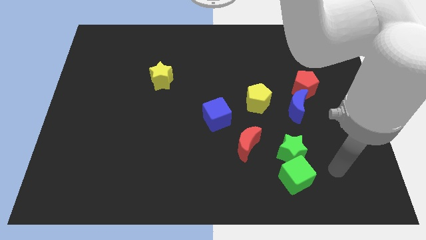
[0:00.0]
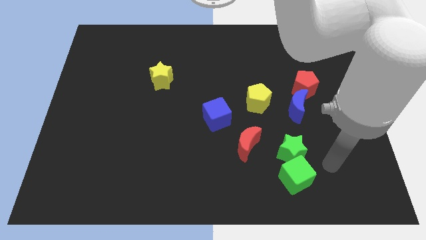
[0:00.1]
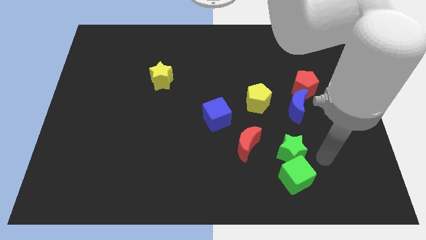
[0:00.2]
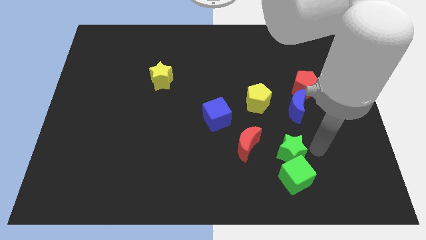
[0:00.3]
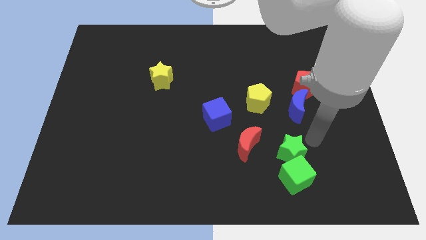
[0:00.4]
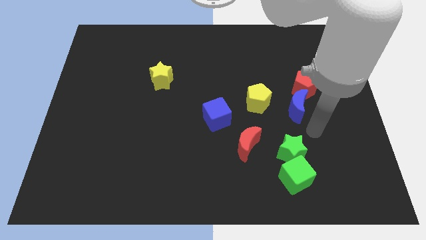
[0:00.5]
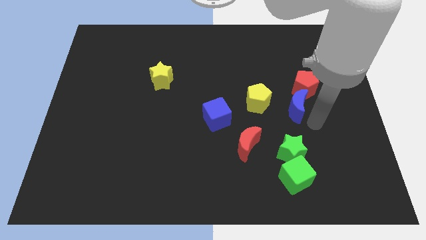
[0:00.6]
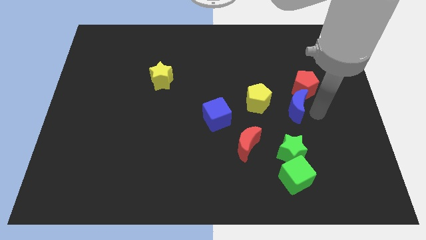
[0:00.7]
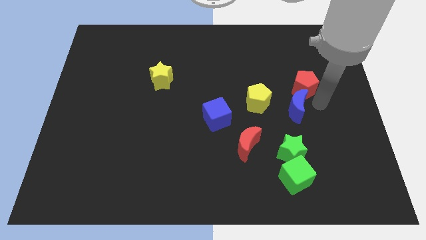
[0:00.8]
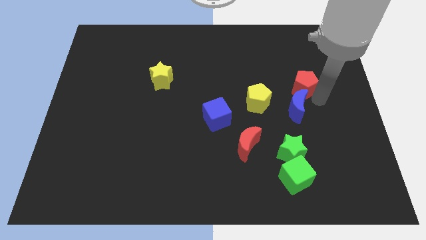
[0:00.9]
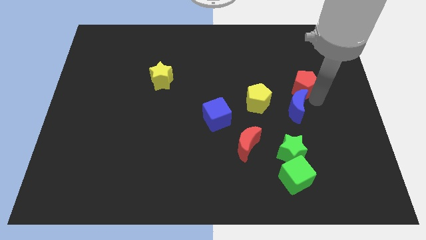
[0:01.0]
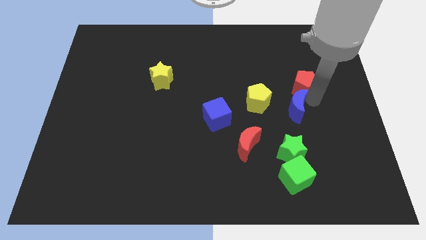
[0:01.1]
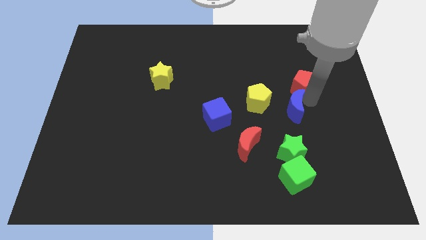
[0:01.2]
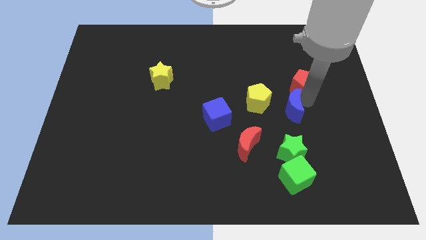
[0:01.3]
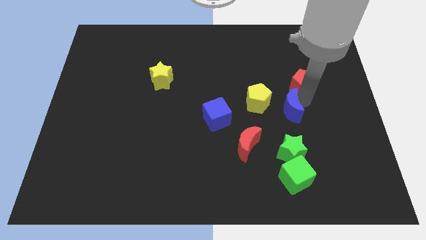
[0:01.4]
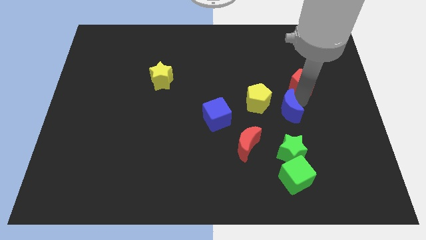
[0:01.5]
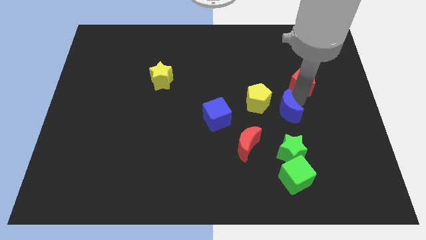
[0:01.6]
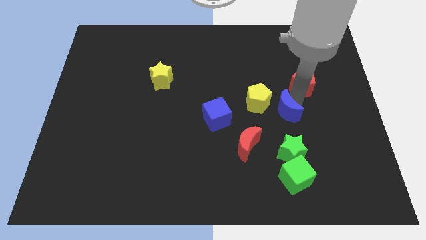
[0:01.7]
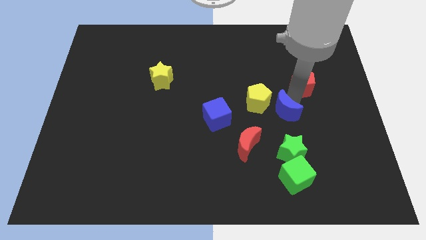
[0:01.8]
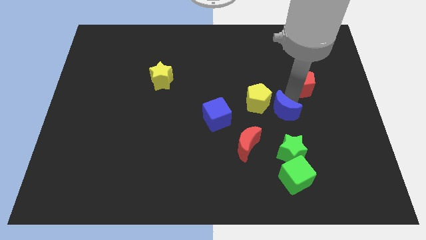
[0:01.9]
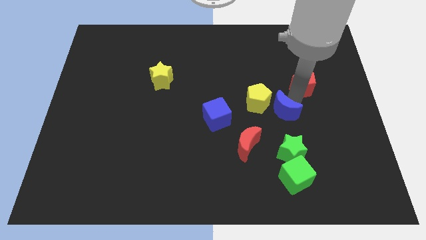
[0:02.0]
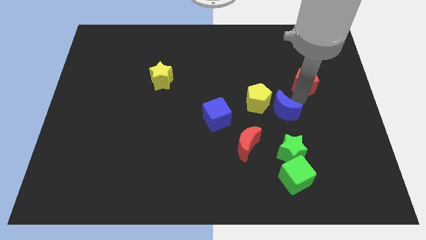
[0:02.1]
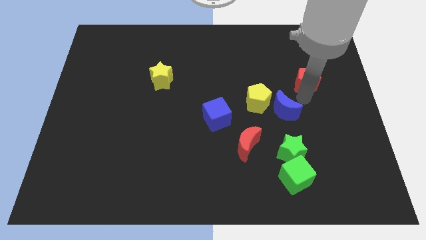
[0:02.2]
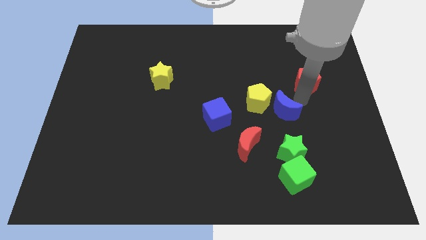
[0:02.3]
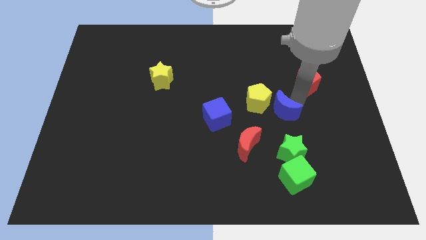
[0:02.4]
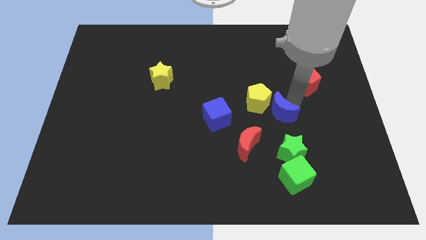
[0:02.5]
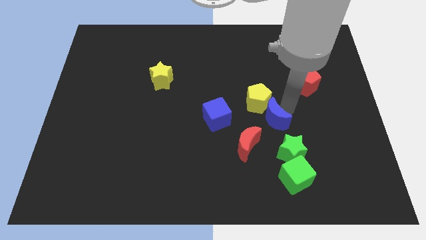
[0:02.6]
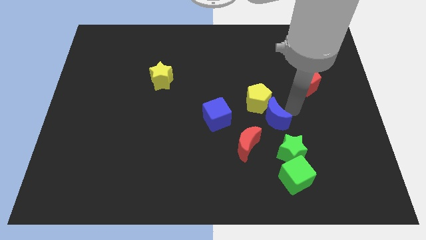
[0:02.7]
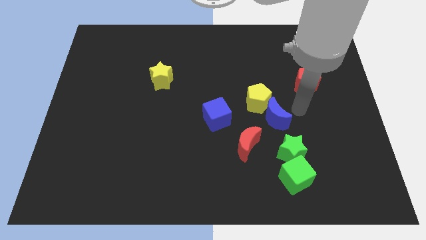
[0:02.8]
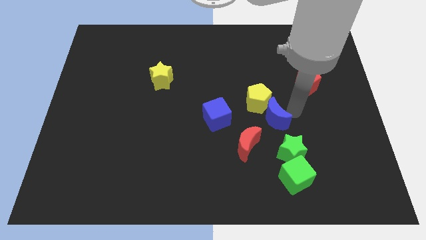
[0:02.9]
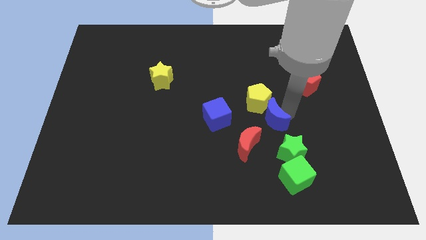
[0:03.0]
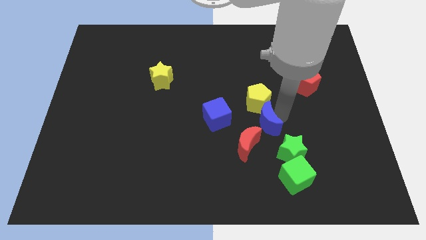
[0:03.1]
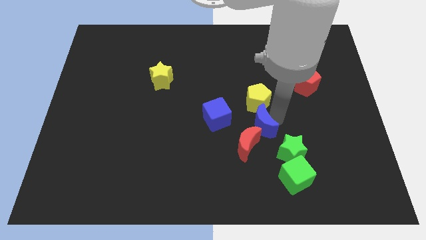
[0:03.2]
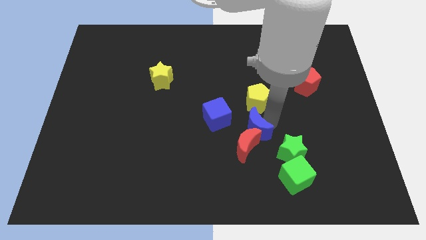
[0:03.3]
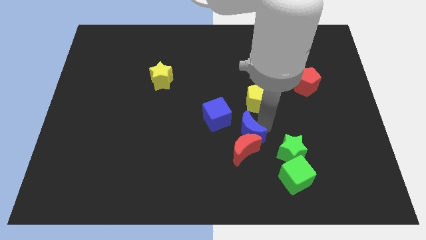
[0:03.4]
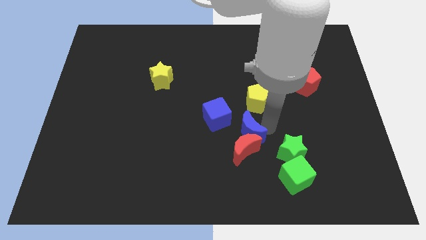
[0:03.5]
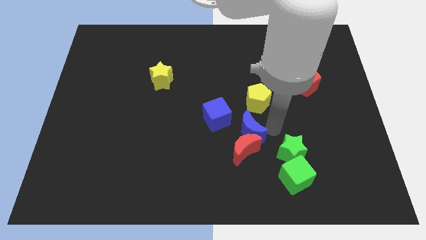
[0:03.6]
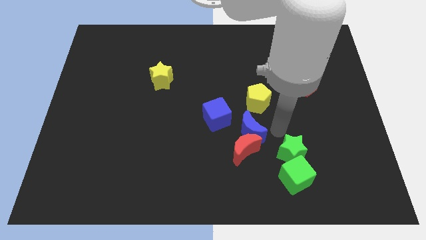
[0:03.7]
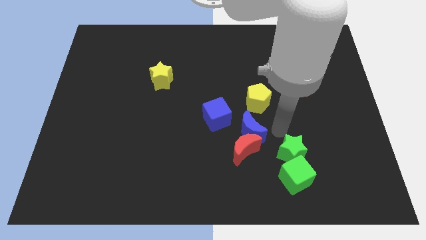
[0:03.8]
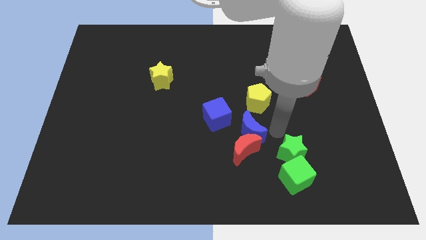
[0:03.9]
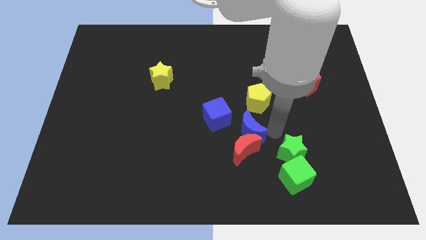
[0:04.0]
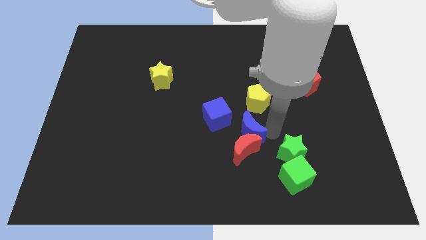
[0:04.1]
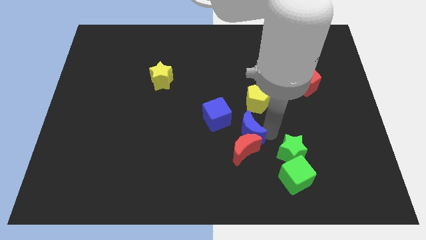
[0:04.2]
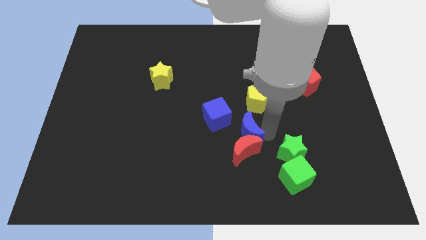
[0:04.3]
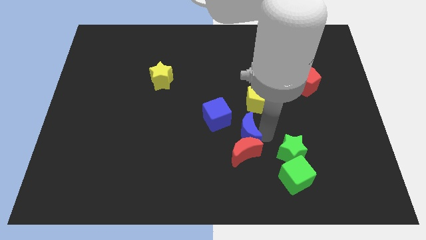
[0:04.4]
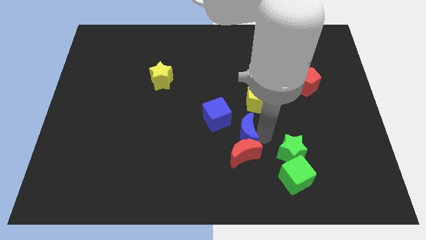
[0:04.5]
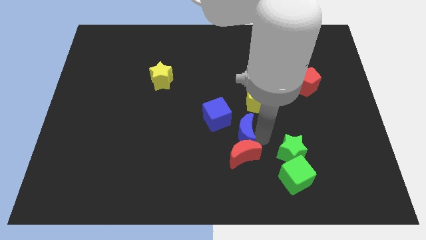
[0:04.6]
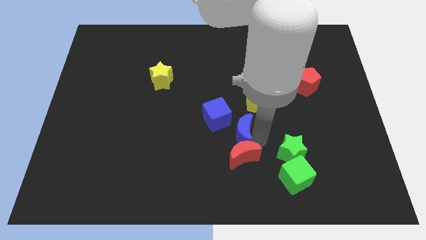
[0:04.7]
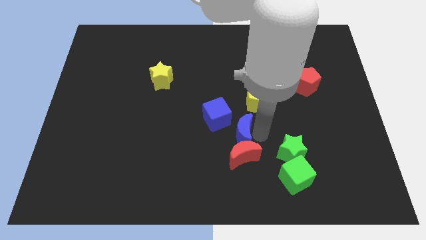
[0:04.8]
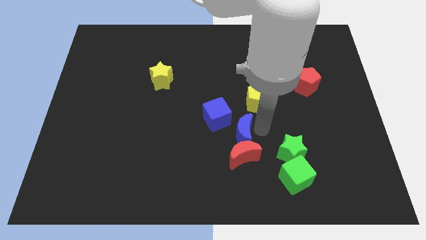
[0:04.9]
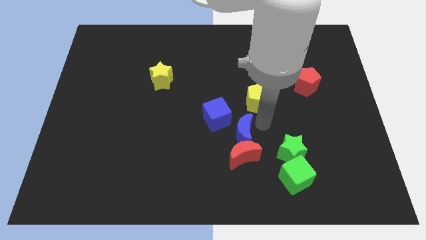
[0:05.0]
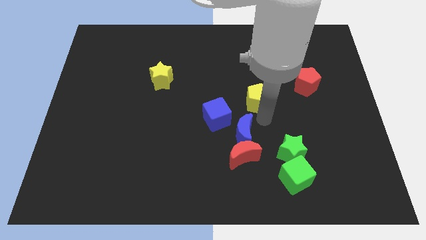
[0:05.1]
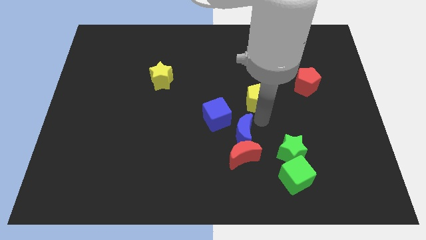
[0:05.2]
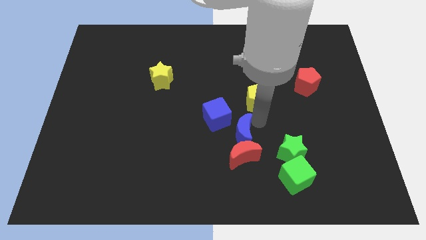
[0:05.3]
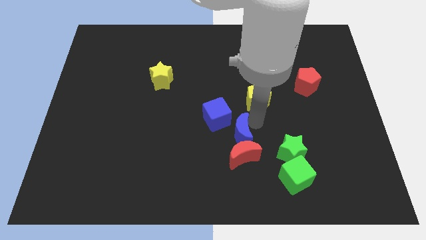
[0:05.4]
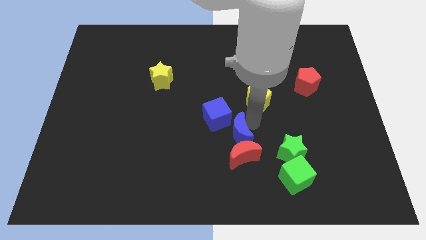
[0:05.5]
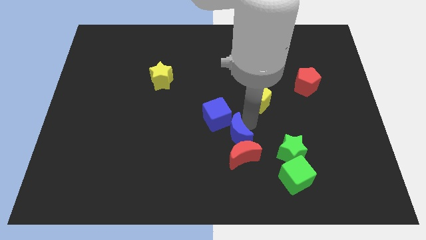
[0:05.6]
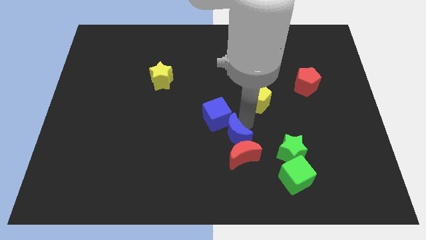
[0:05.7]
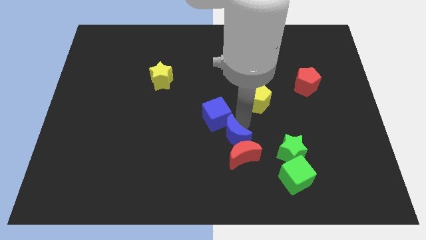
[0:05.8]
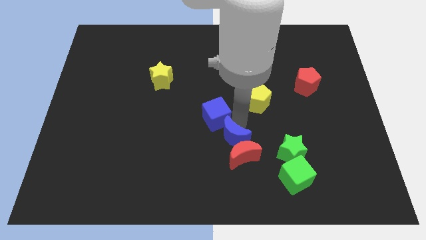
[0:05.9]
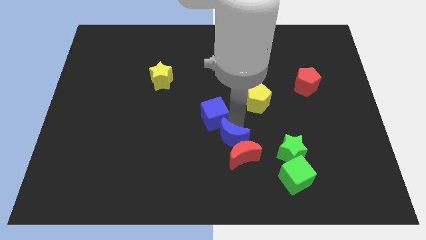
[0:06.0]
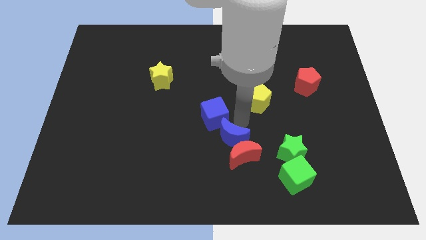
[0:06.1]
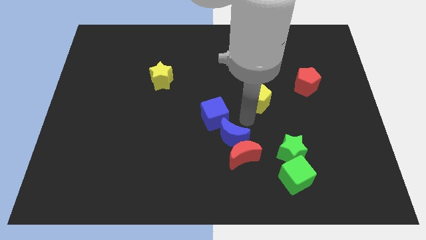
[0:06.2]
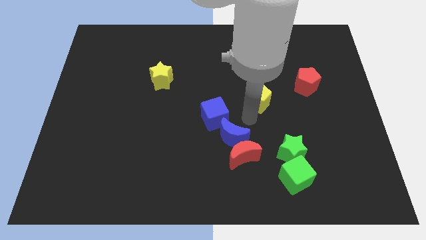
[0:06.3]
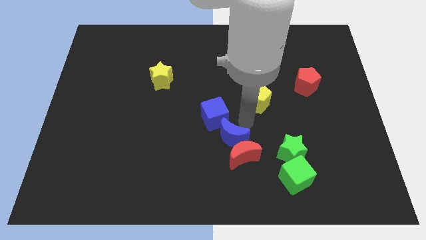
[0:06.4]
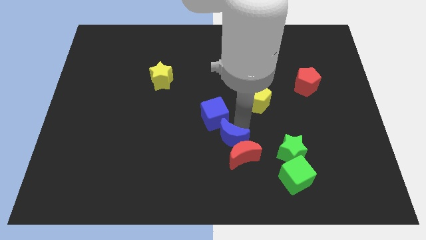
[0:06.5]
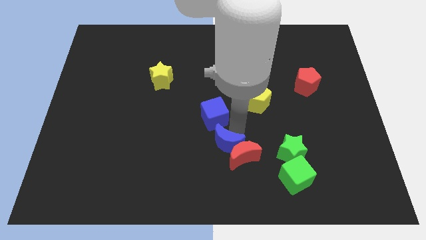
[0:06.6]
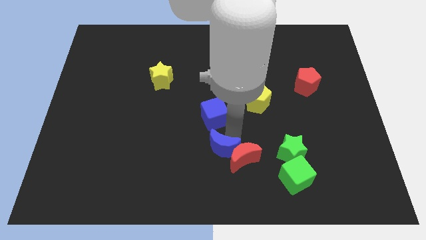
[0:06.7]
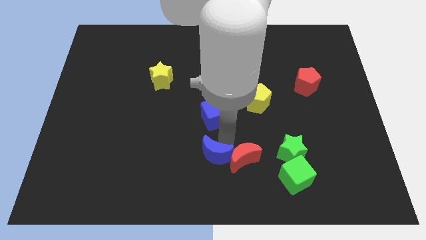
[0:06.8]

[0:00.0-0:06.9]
move the blue moon to the bottom

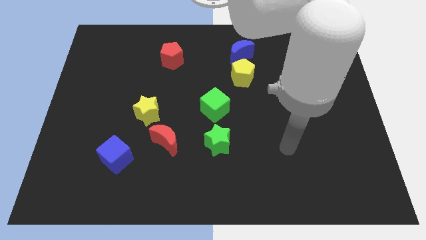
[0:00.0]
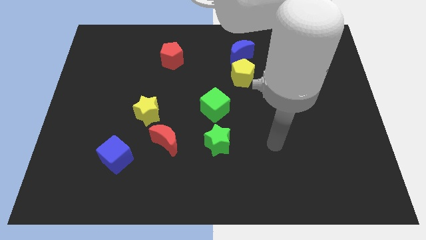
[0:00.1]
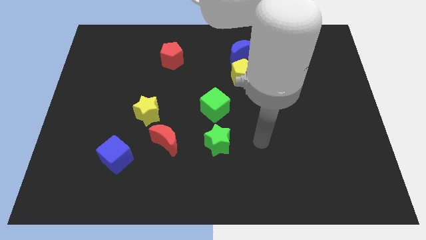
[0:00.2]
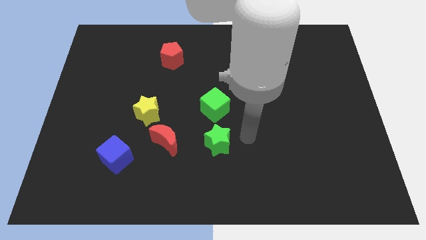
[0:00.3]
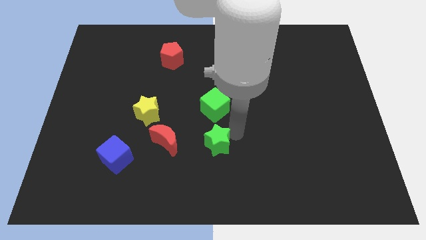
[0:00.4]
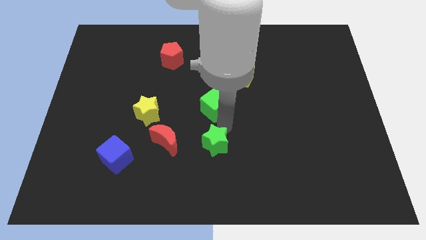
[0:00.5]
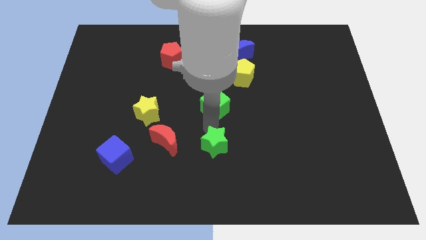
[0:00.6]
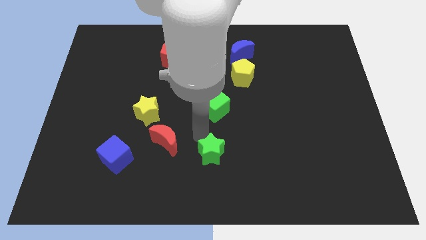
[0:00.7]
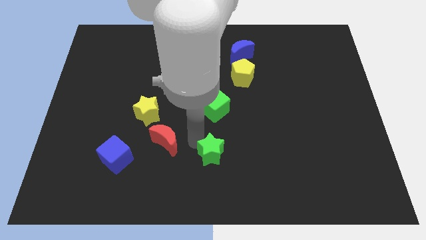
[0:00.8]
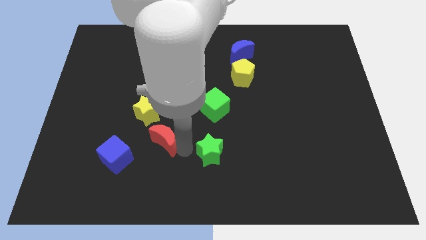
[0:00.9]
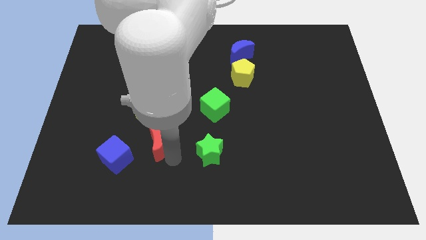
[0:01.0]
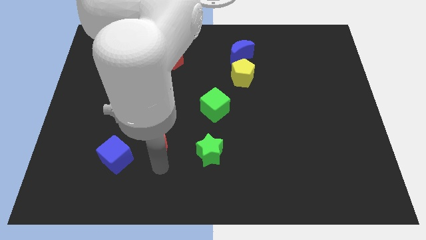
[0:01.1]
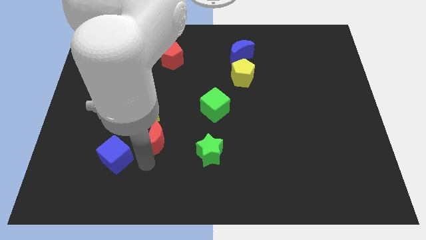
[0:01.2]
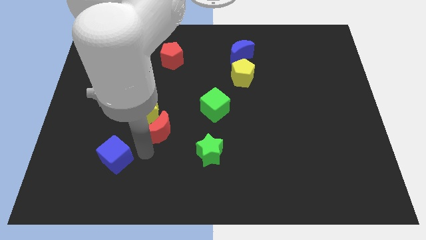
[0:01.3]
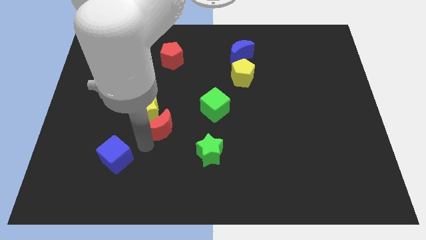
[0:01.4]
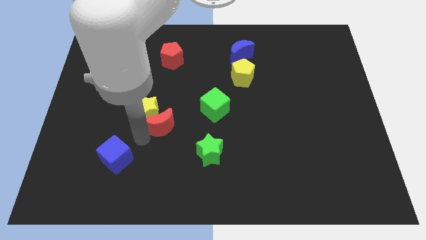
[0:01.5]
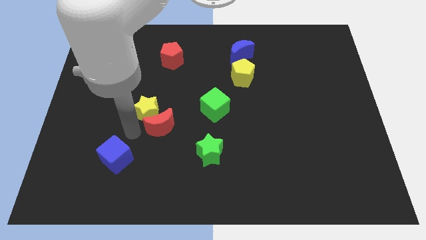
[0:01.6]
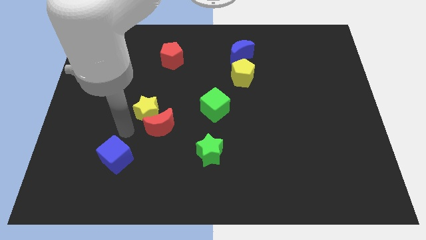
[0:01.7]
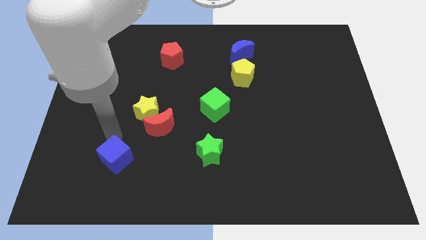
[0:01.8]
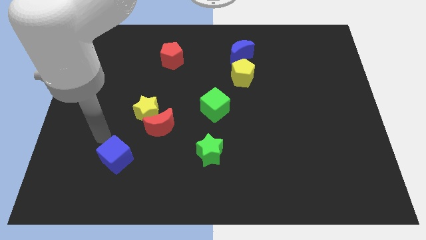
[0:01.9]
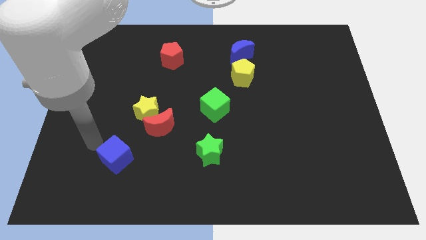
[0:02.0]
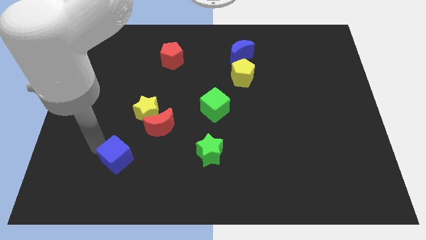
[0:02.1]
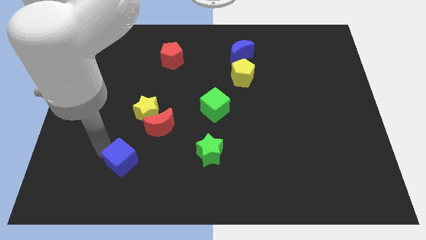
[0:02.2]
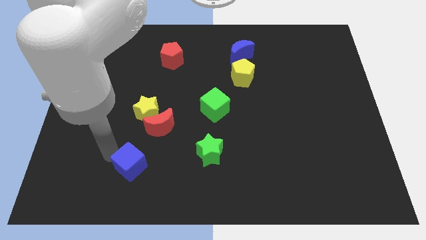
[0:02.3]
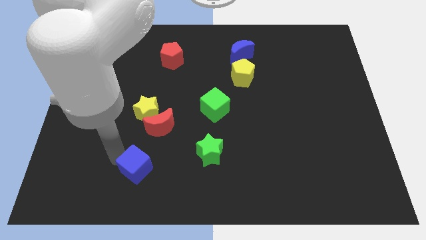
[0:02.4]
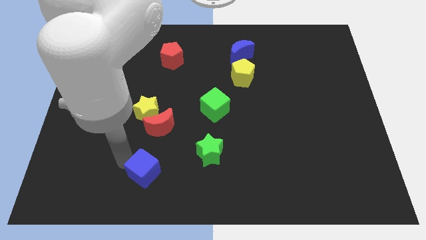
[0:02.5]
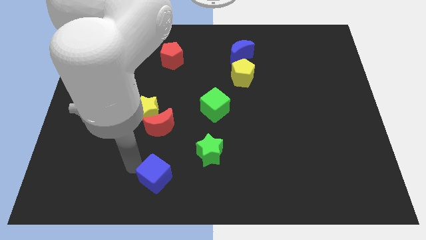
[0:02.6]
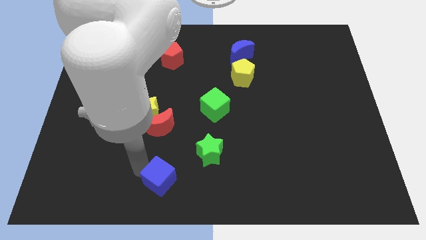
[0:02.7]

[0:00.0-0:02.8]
slide the blue cube to the bottom side
